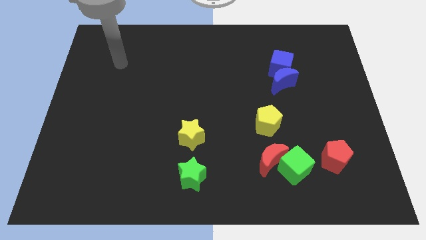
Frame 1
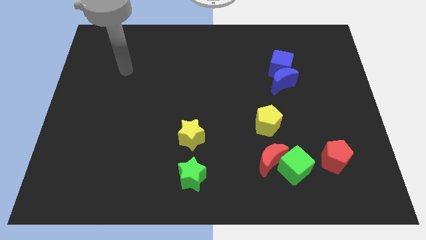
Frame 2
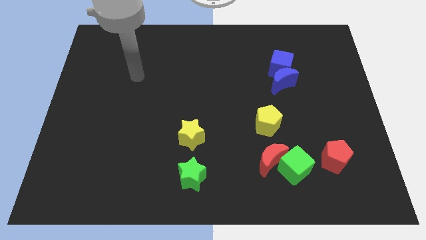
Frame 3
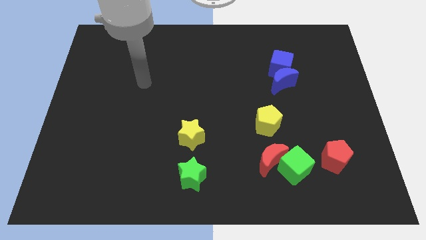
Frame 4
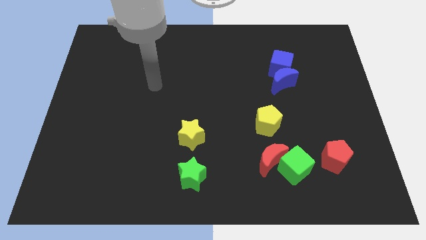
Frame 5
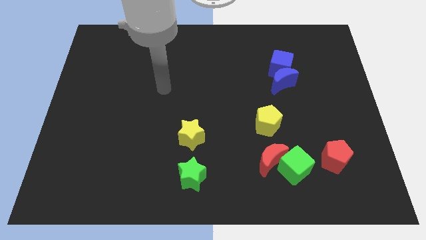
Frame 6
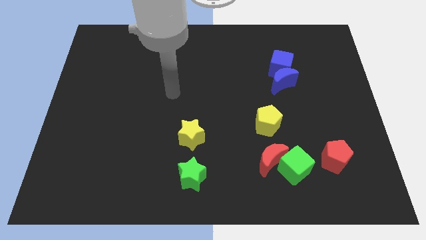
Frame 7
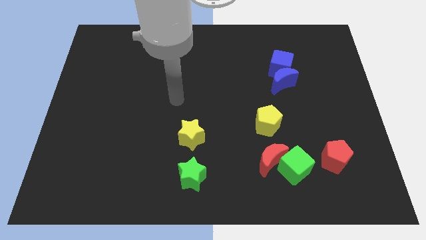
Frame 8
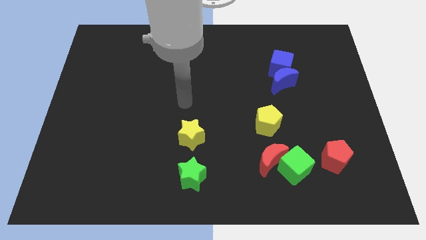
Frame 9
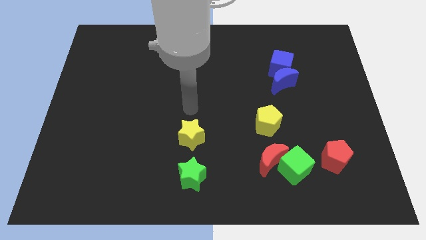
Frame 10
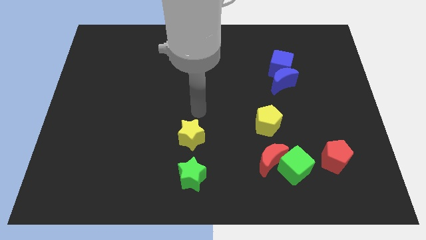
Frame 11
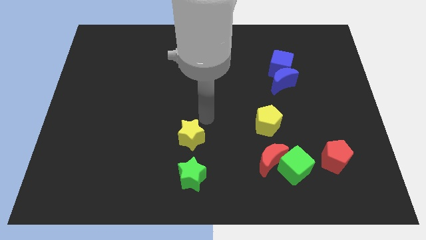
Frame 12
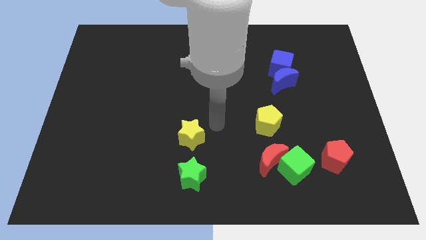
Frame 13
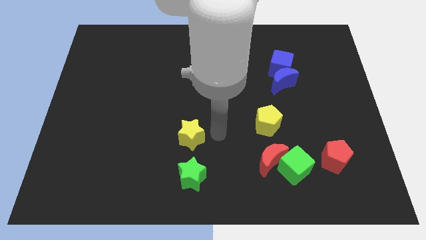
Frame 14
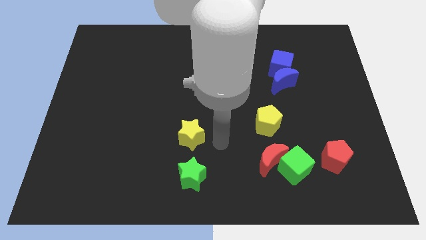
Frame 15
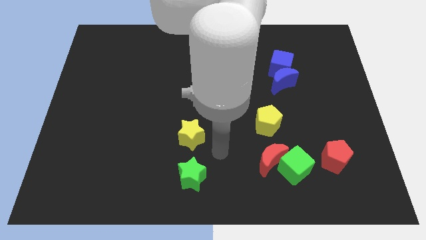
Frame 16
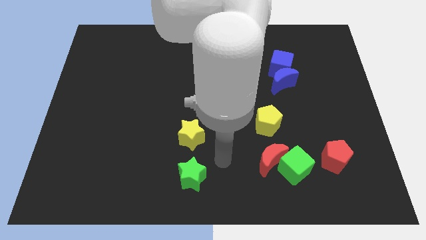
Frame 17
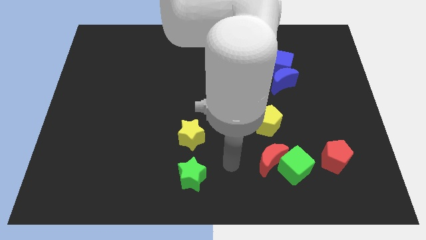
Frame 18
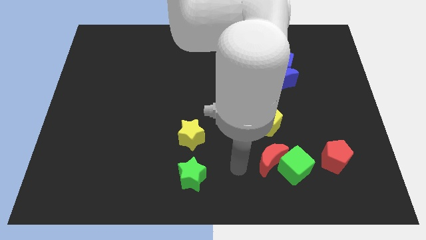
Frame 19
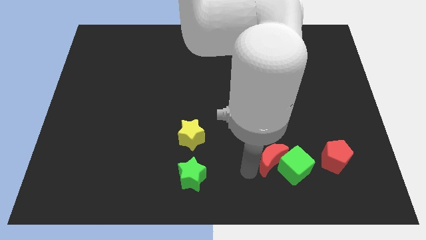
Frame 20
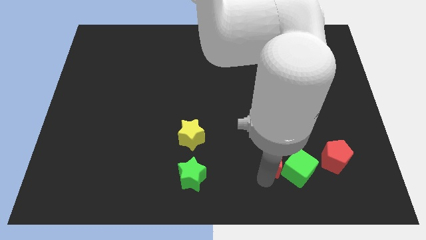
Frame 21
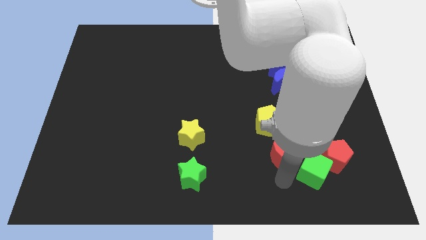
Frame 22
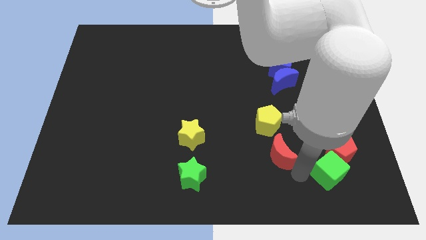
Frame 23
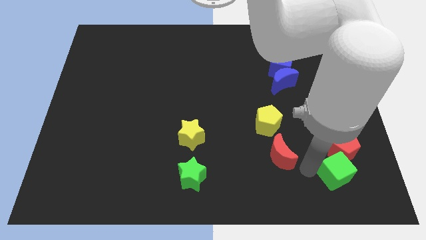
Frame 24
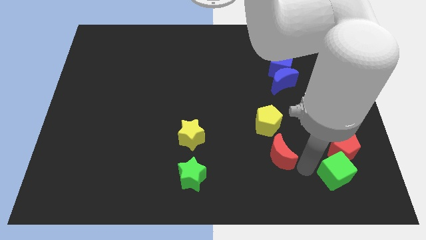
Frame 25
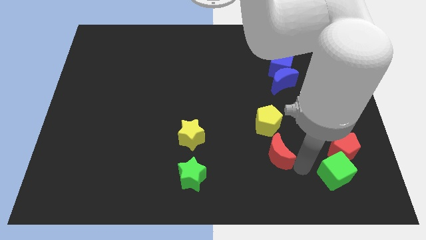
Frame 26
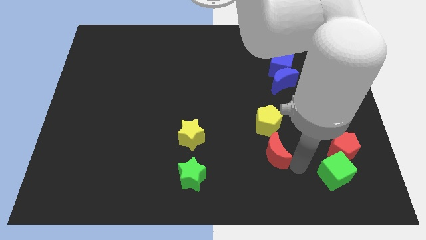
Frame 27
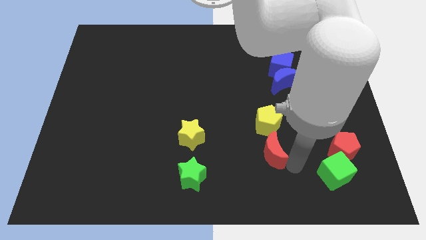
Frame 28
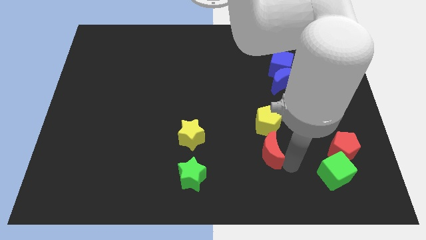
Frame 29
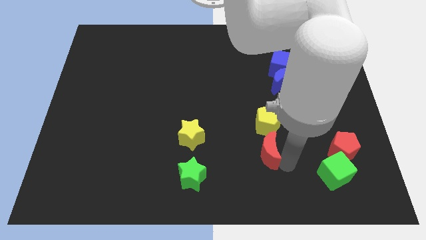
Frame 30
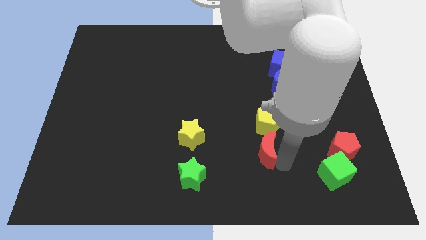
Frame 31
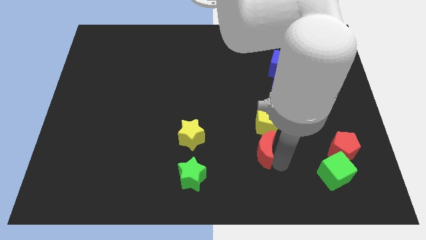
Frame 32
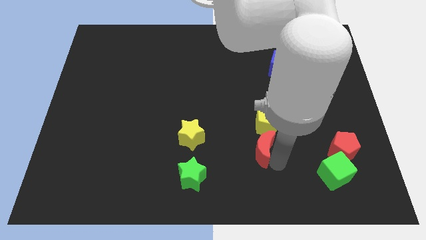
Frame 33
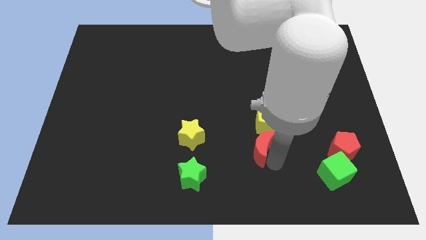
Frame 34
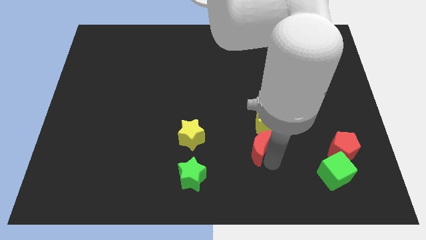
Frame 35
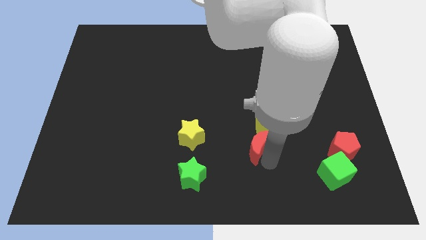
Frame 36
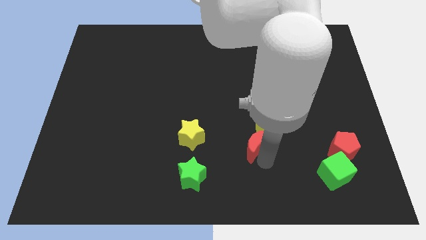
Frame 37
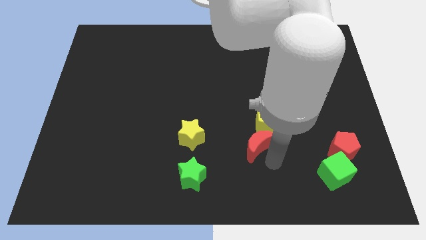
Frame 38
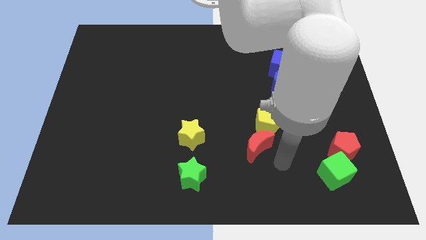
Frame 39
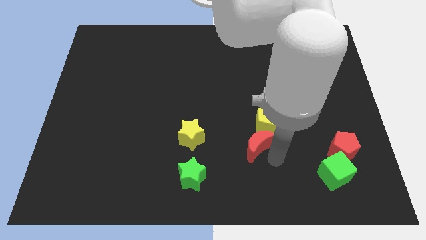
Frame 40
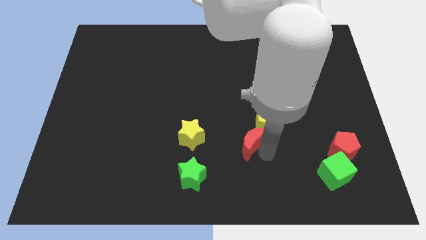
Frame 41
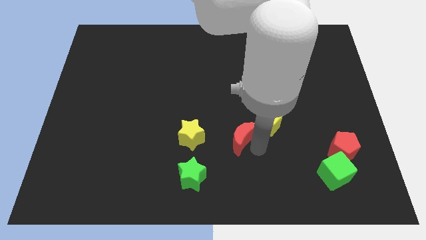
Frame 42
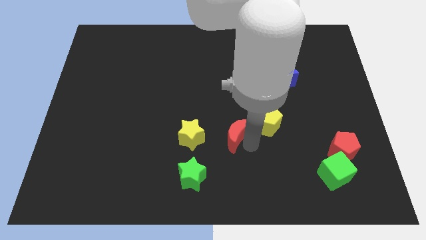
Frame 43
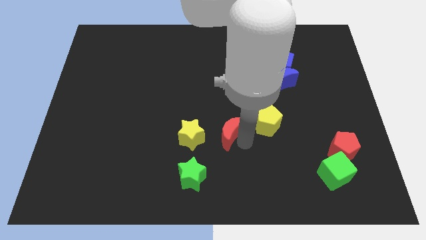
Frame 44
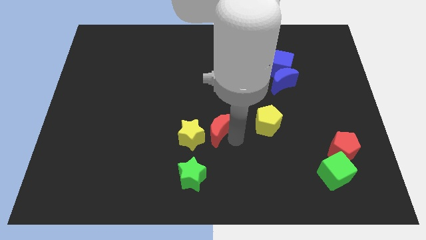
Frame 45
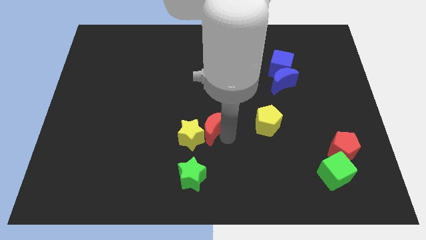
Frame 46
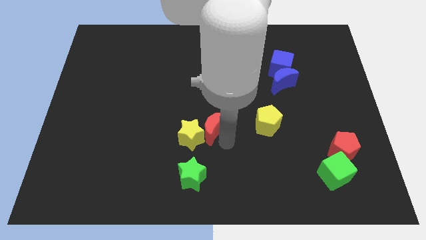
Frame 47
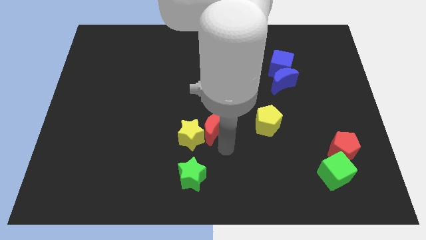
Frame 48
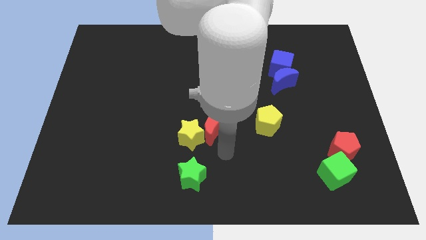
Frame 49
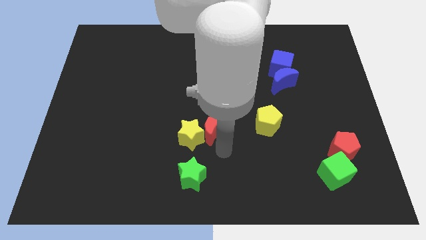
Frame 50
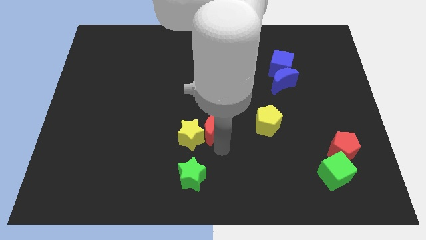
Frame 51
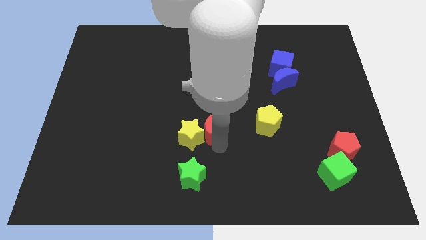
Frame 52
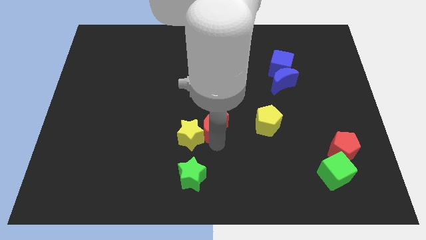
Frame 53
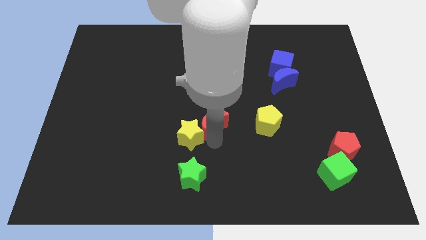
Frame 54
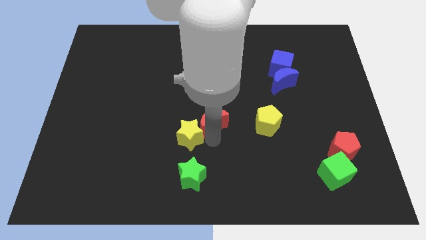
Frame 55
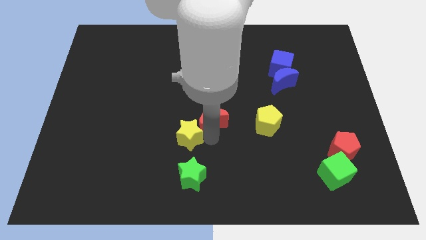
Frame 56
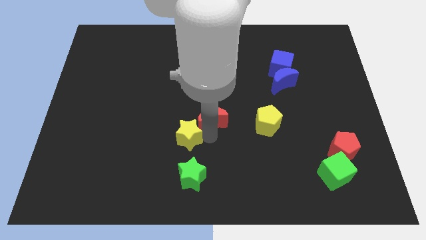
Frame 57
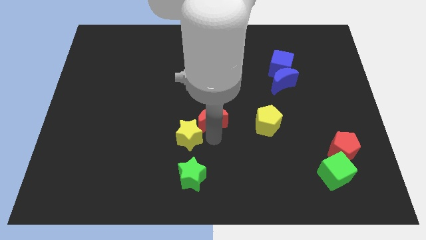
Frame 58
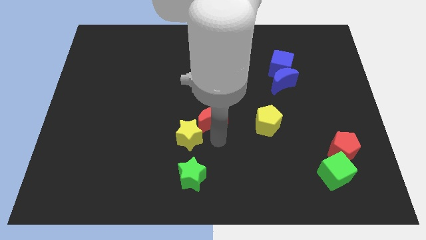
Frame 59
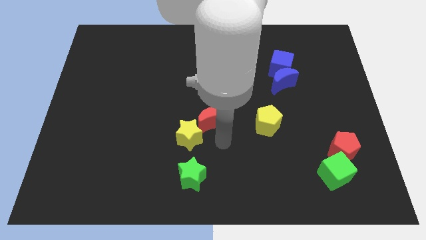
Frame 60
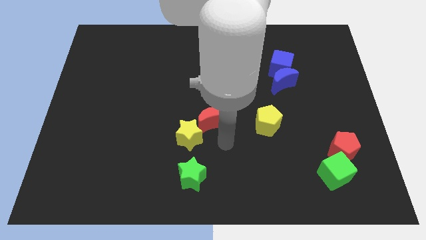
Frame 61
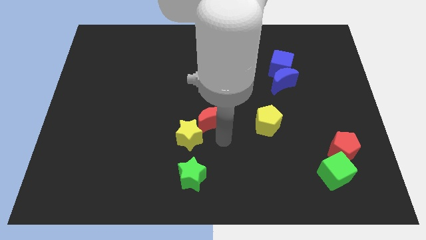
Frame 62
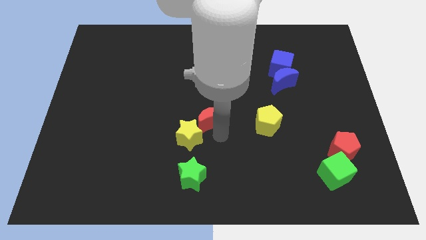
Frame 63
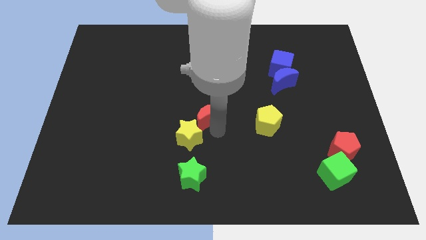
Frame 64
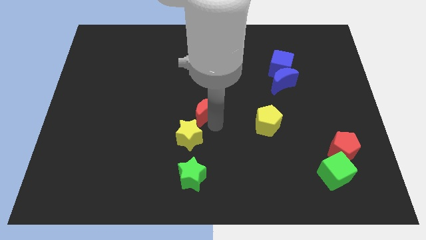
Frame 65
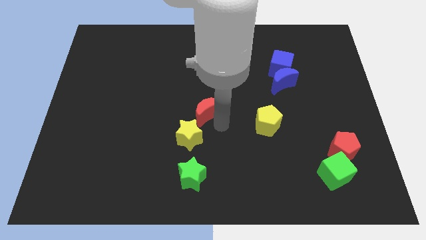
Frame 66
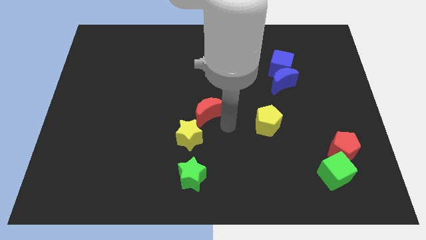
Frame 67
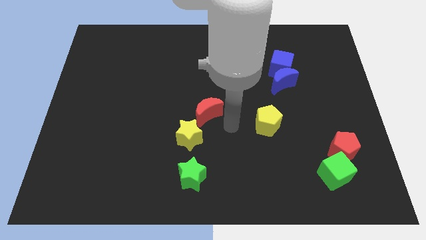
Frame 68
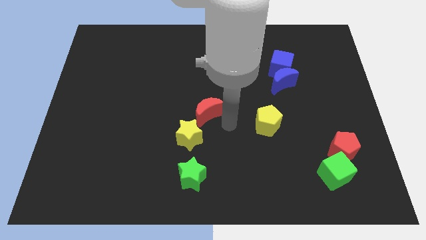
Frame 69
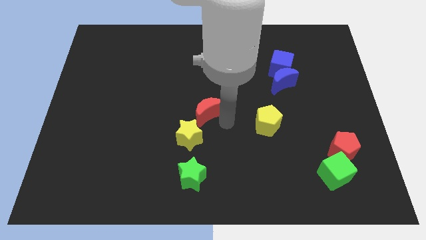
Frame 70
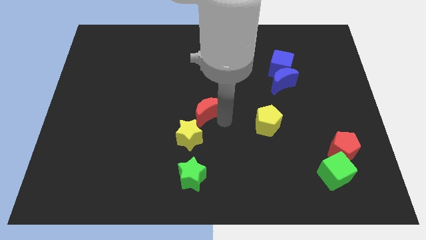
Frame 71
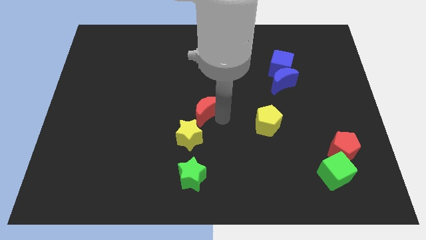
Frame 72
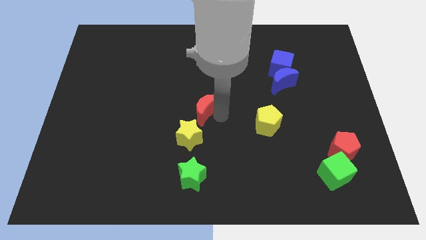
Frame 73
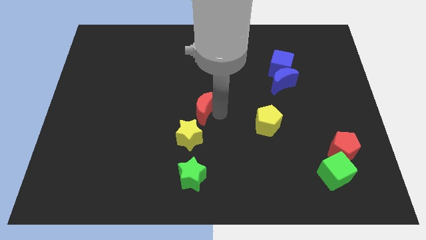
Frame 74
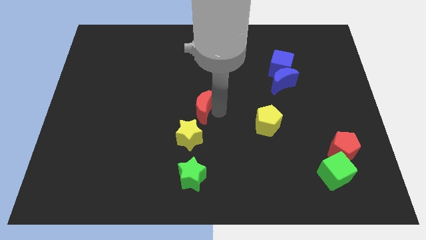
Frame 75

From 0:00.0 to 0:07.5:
slide the red moon diagonally upwards and to the left

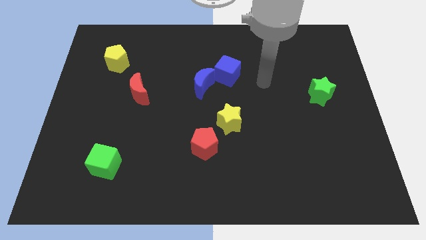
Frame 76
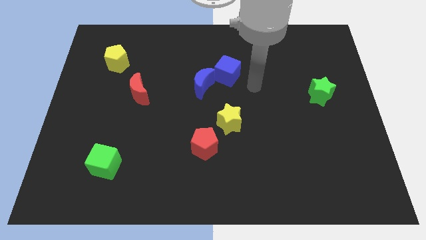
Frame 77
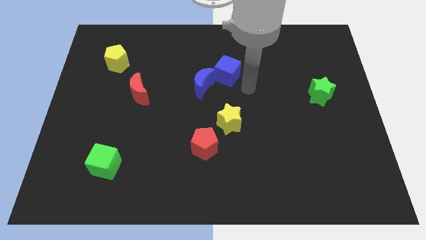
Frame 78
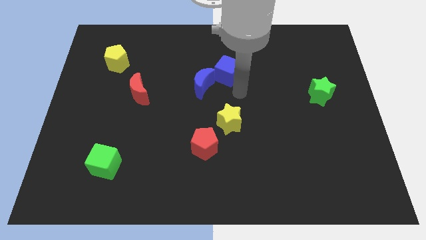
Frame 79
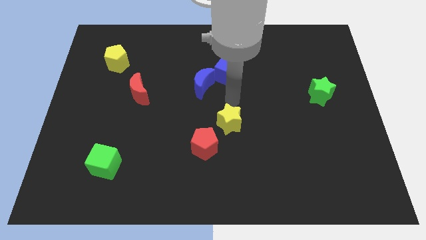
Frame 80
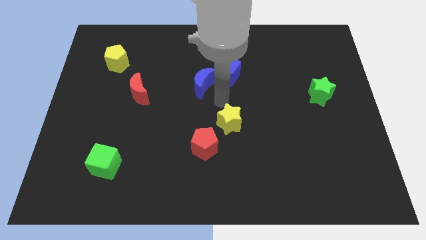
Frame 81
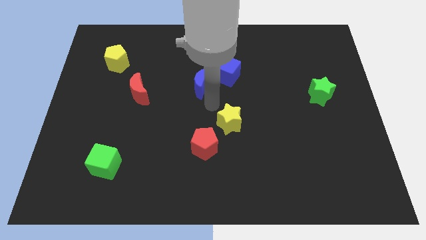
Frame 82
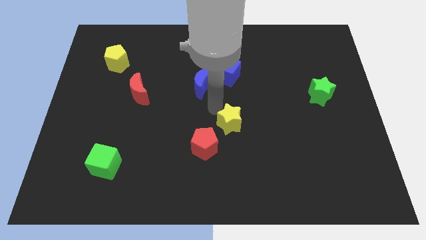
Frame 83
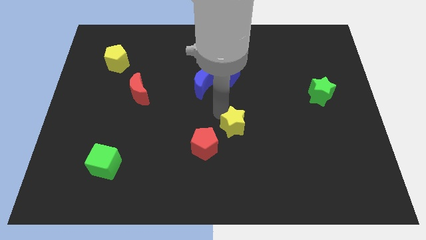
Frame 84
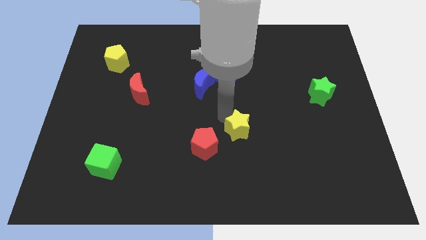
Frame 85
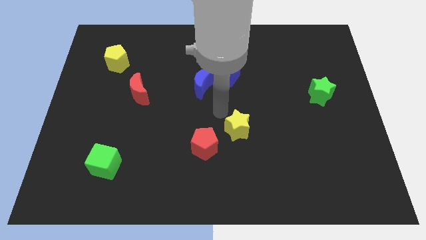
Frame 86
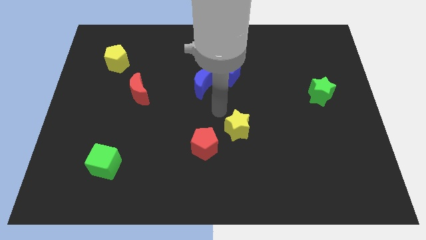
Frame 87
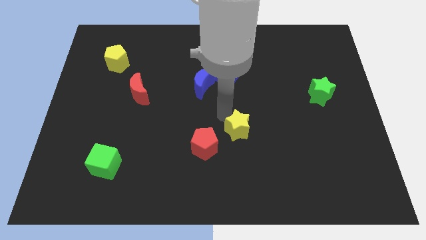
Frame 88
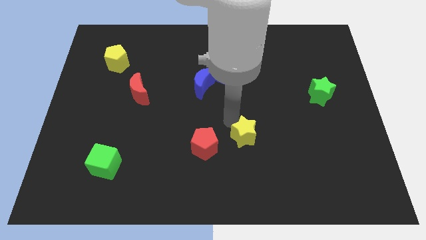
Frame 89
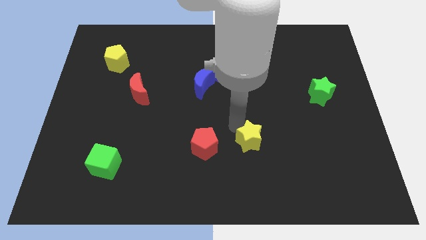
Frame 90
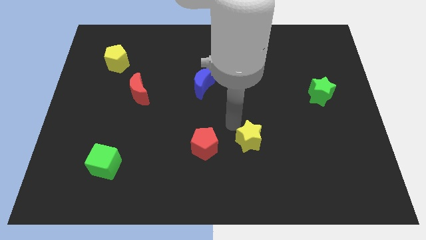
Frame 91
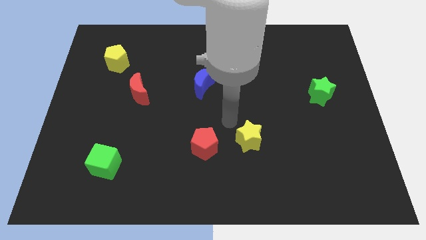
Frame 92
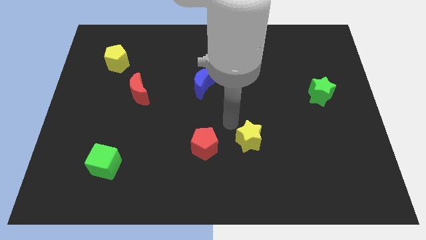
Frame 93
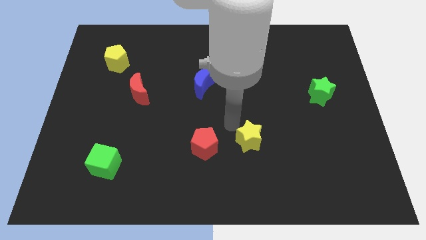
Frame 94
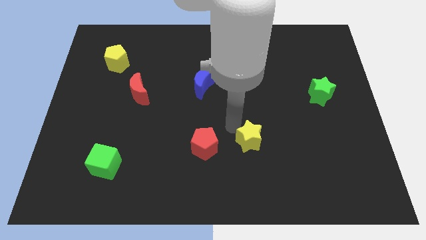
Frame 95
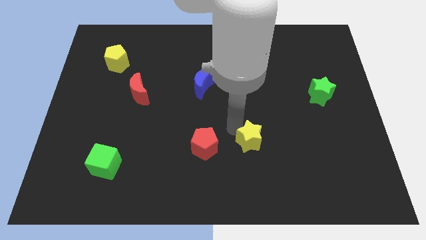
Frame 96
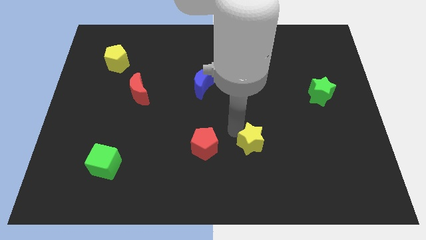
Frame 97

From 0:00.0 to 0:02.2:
move the yellow star down and right diagonally a little
